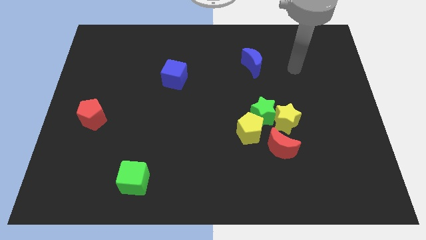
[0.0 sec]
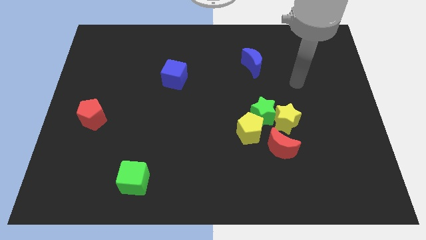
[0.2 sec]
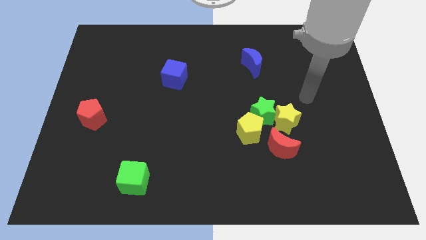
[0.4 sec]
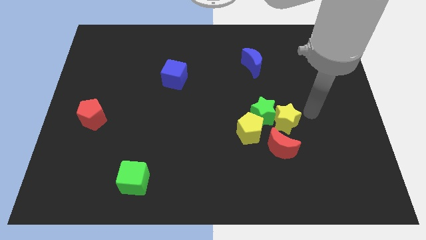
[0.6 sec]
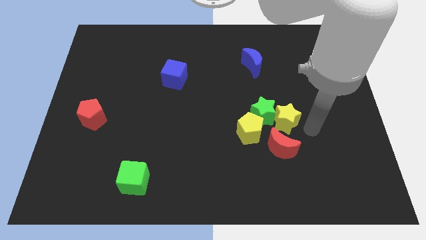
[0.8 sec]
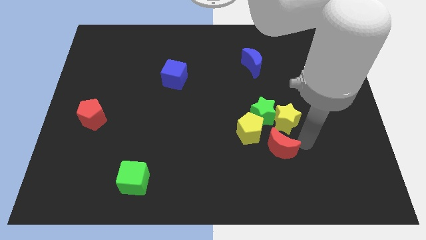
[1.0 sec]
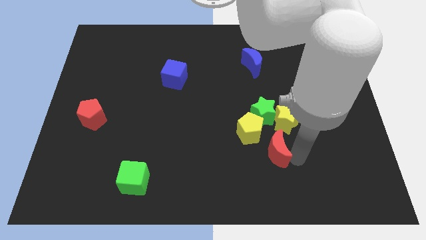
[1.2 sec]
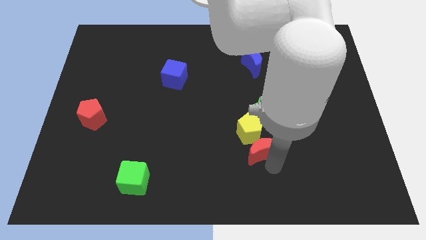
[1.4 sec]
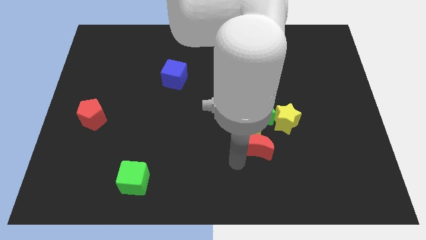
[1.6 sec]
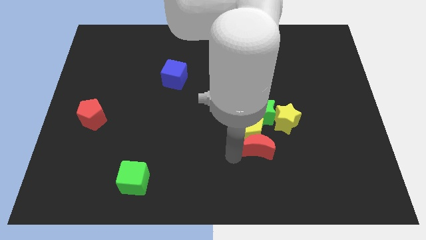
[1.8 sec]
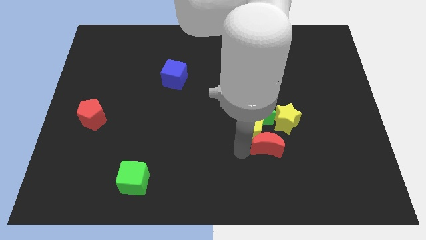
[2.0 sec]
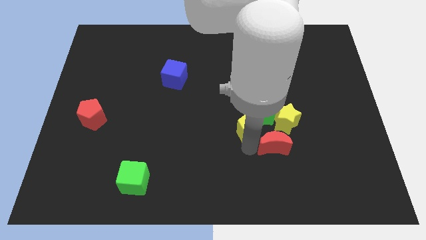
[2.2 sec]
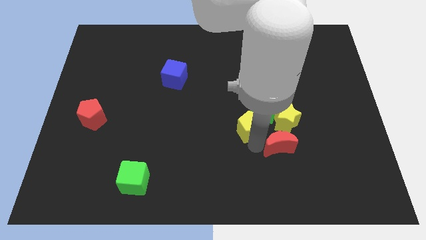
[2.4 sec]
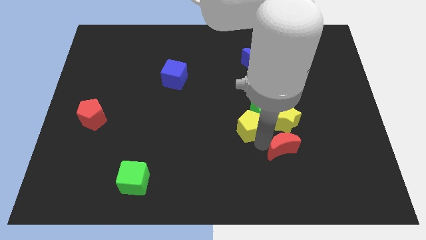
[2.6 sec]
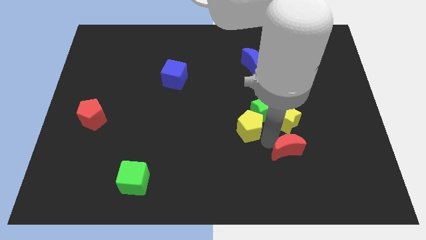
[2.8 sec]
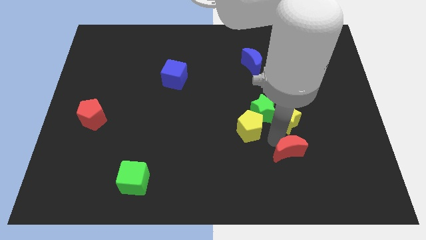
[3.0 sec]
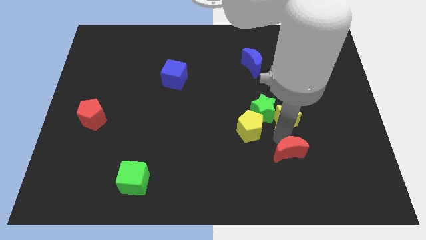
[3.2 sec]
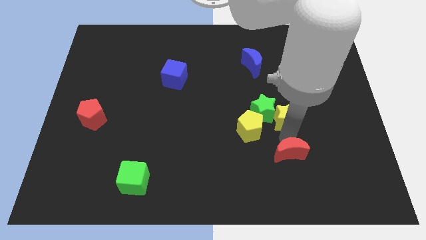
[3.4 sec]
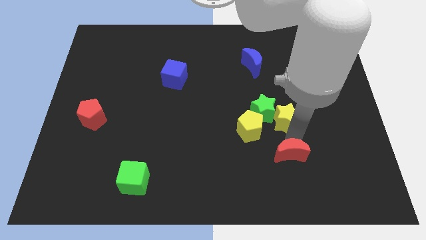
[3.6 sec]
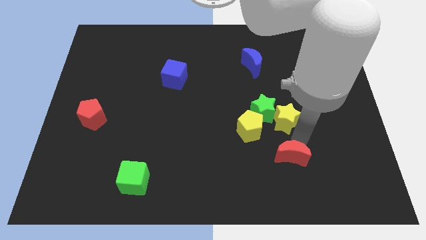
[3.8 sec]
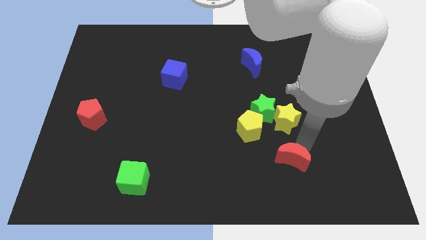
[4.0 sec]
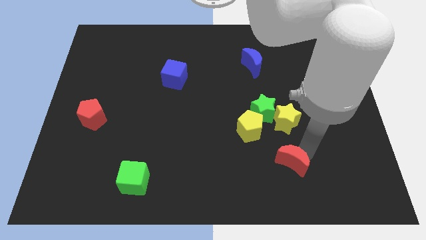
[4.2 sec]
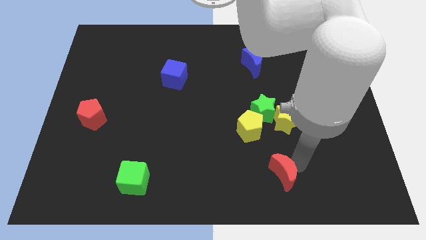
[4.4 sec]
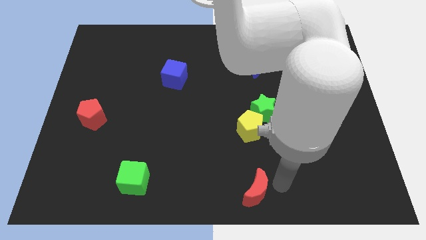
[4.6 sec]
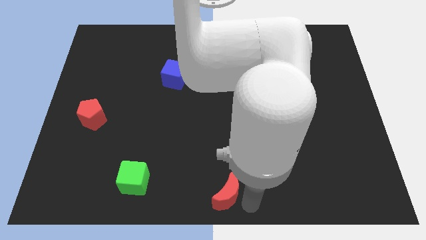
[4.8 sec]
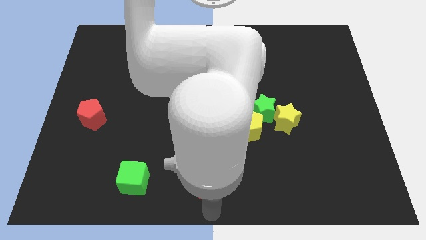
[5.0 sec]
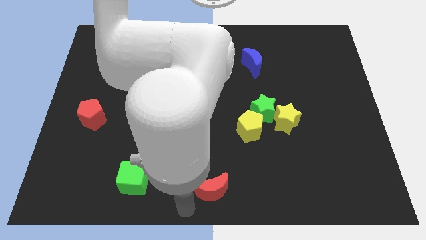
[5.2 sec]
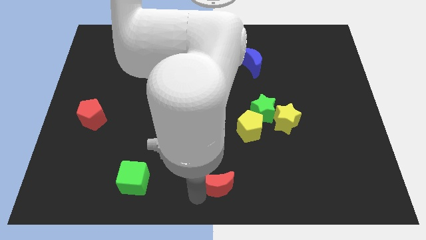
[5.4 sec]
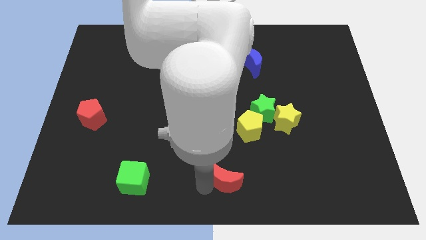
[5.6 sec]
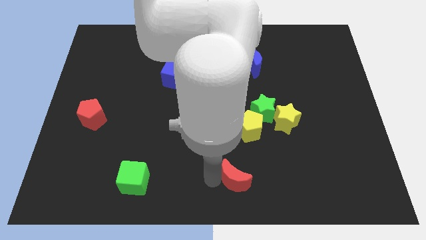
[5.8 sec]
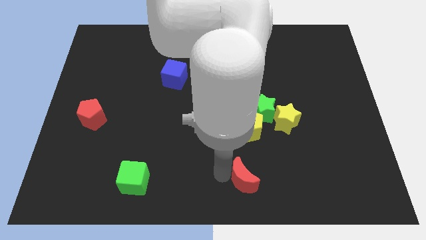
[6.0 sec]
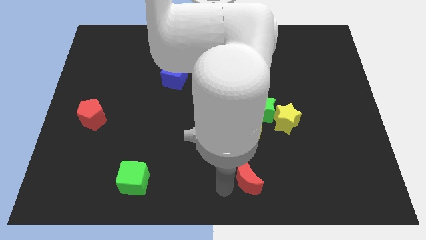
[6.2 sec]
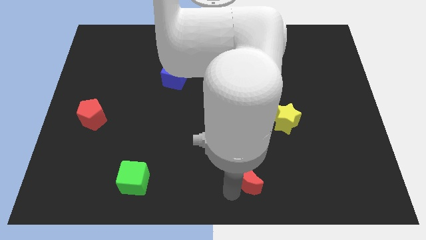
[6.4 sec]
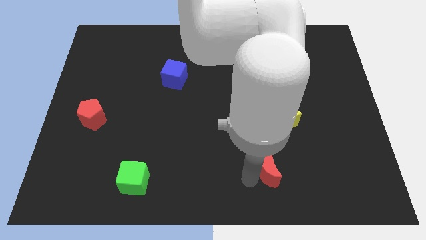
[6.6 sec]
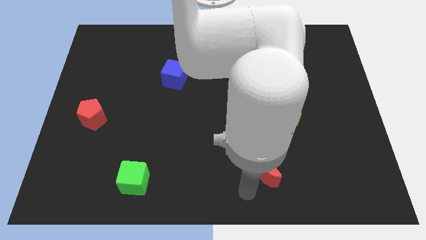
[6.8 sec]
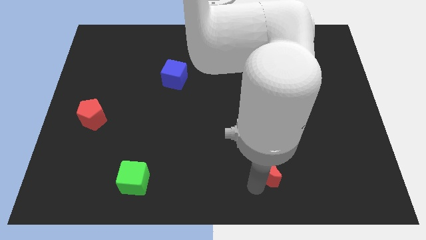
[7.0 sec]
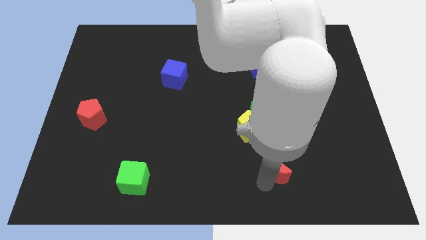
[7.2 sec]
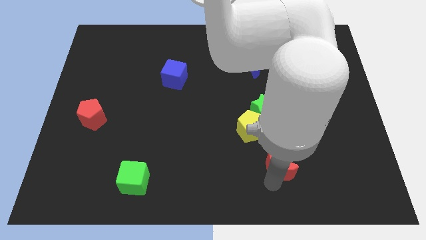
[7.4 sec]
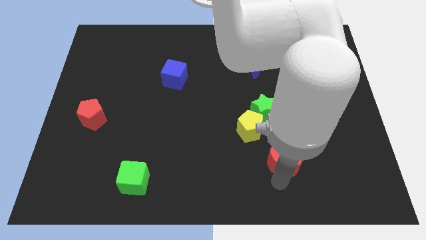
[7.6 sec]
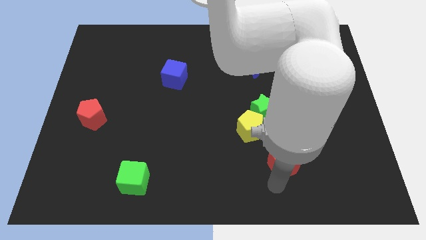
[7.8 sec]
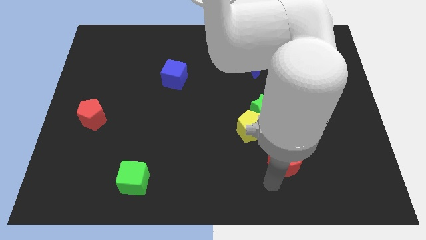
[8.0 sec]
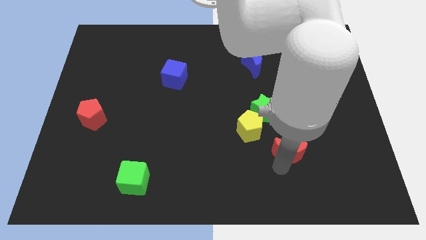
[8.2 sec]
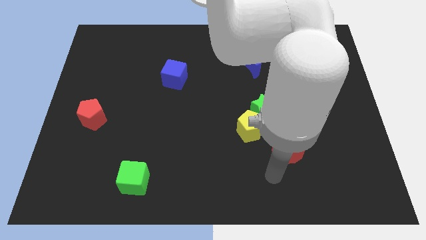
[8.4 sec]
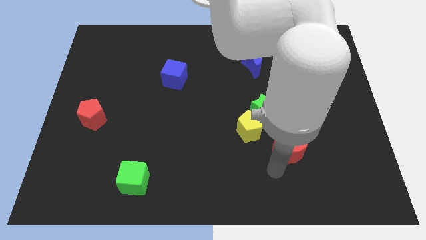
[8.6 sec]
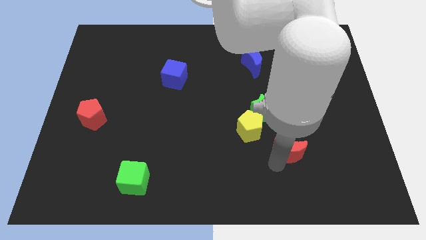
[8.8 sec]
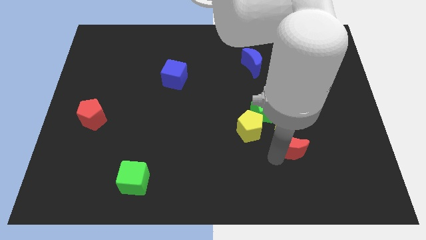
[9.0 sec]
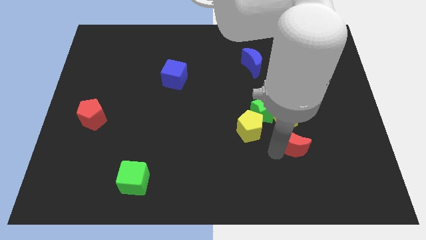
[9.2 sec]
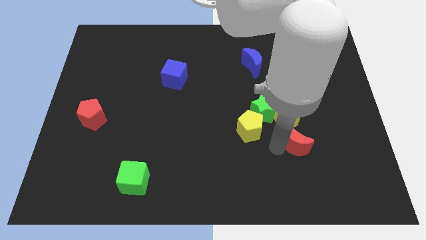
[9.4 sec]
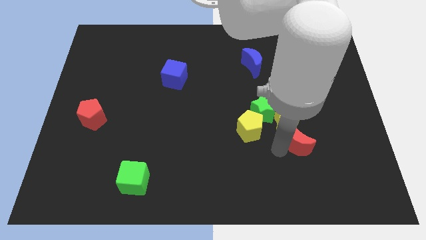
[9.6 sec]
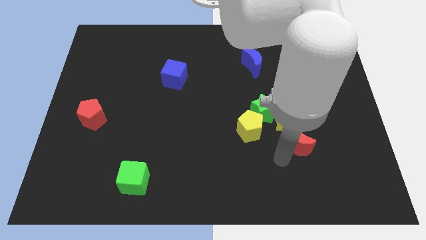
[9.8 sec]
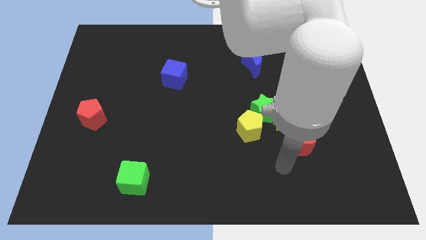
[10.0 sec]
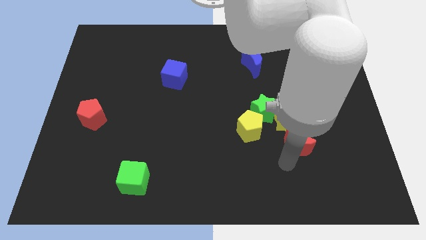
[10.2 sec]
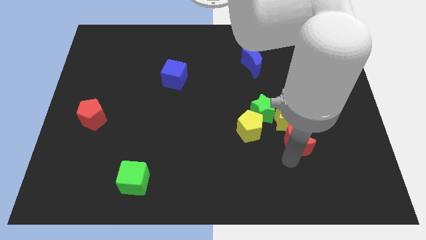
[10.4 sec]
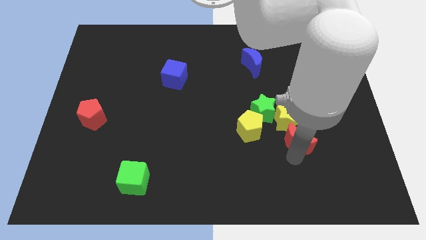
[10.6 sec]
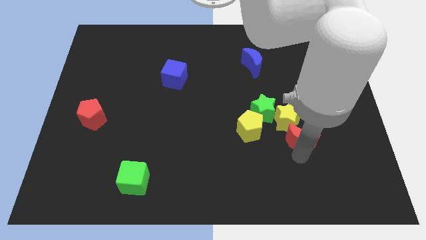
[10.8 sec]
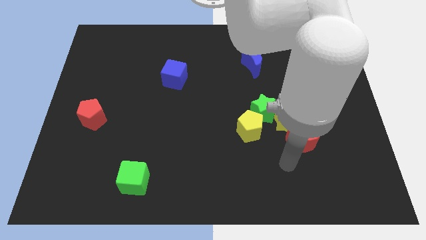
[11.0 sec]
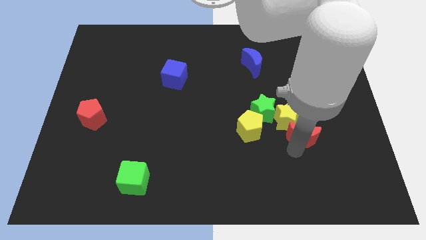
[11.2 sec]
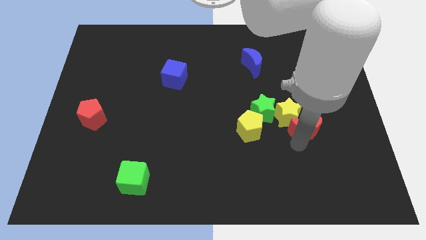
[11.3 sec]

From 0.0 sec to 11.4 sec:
slide the red moon up and then to the right a little

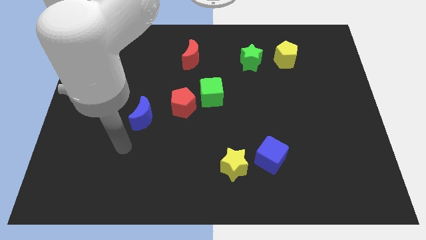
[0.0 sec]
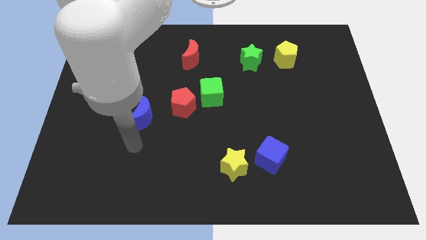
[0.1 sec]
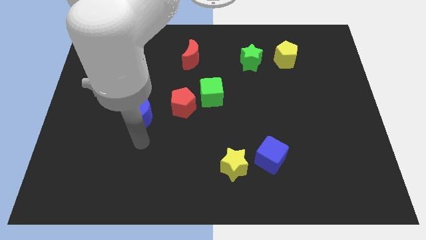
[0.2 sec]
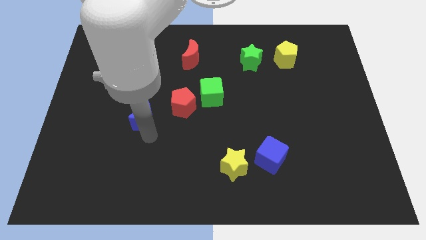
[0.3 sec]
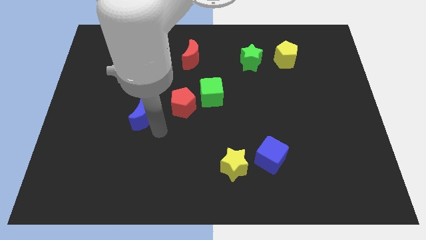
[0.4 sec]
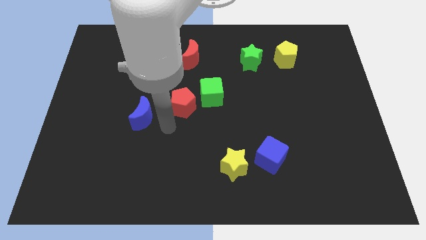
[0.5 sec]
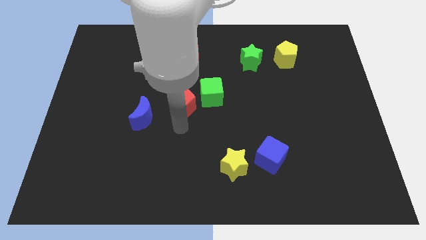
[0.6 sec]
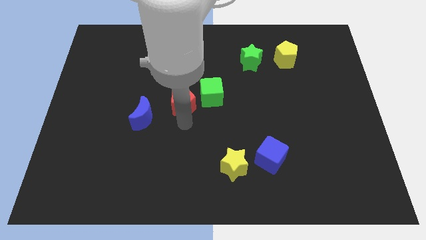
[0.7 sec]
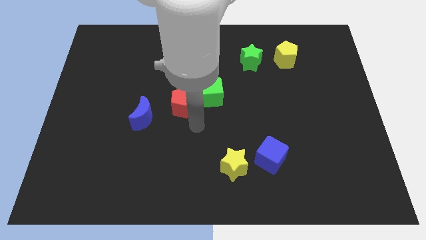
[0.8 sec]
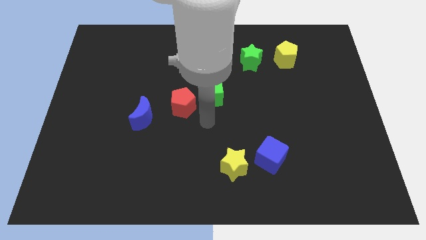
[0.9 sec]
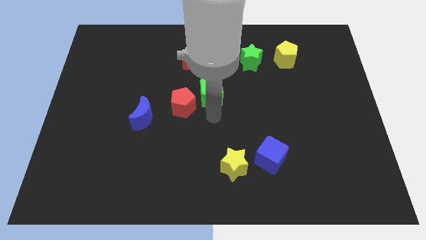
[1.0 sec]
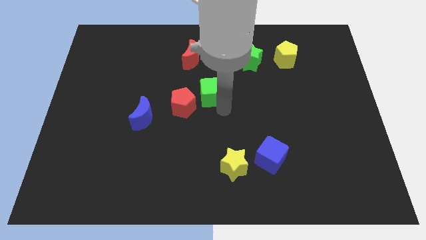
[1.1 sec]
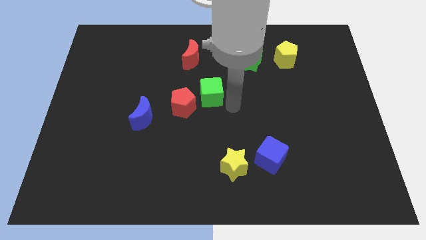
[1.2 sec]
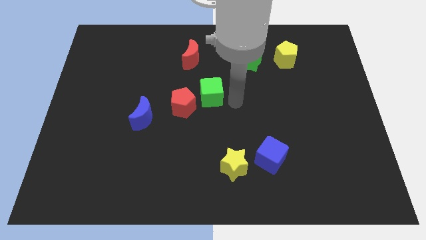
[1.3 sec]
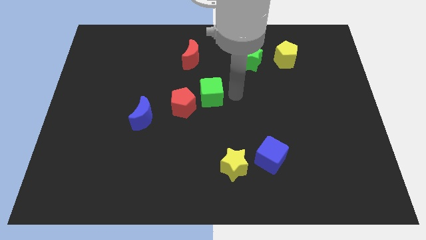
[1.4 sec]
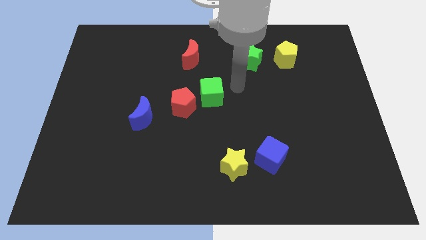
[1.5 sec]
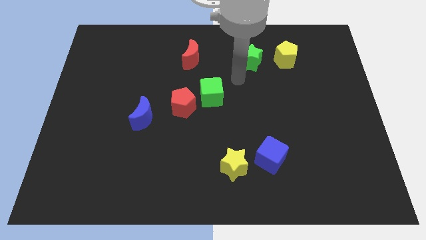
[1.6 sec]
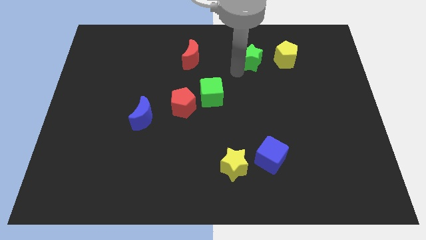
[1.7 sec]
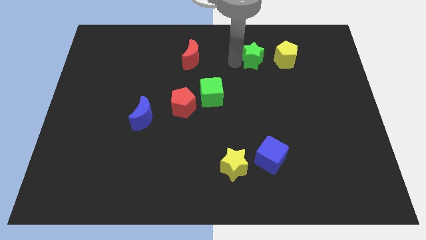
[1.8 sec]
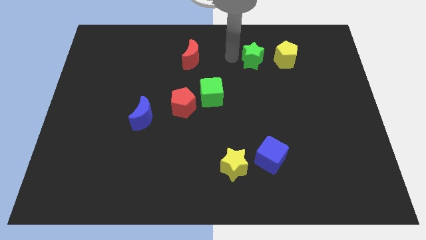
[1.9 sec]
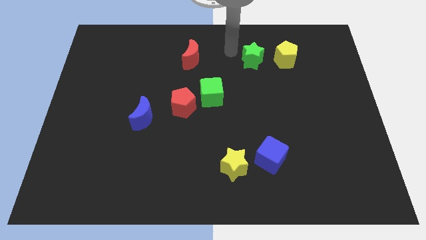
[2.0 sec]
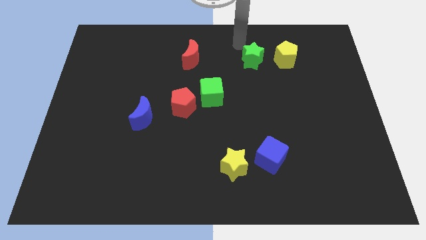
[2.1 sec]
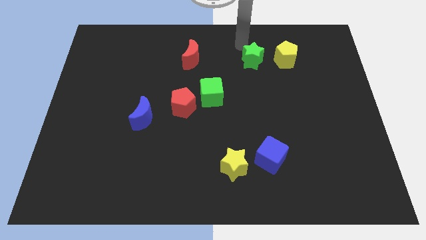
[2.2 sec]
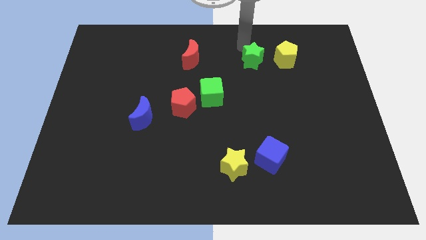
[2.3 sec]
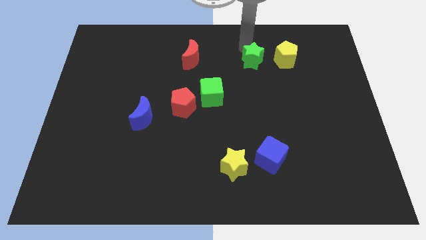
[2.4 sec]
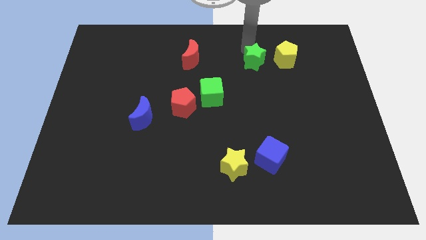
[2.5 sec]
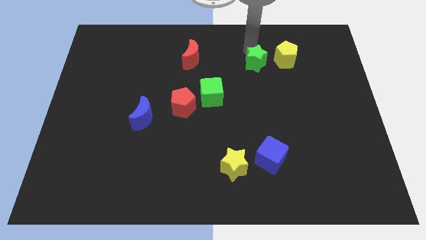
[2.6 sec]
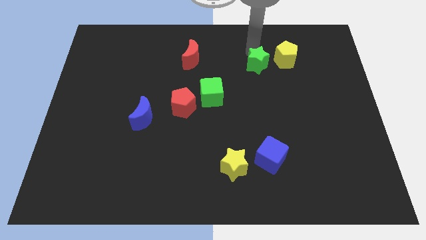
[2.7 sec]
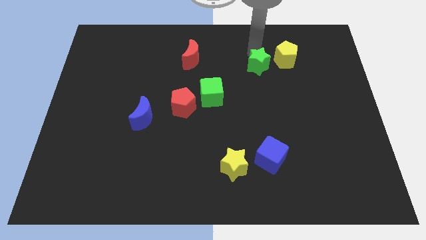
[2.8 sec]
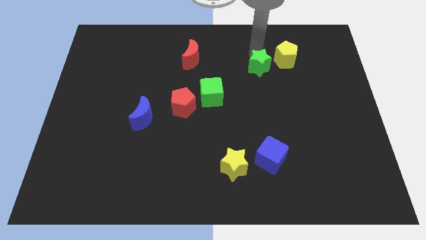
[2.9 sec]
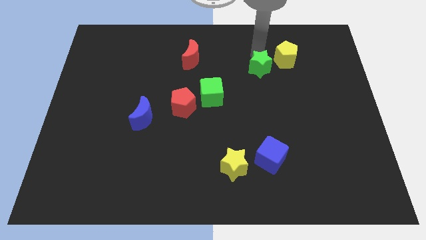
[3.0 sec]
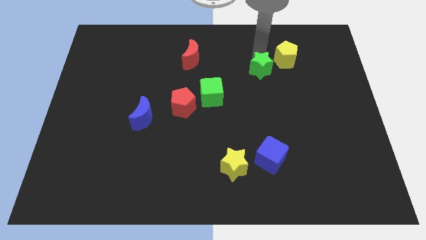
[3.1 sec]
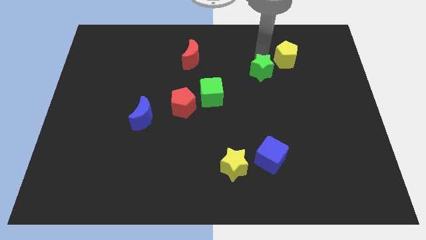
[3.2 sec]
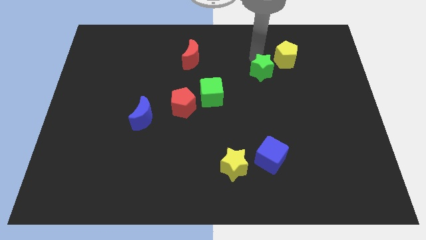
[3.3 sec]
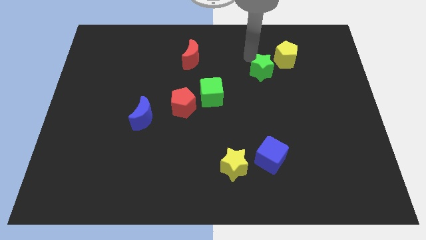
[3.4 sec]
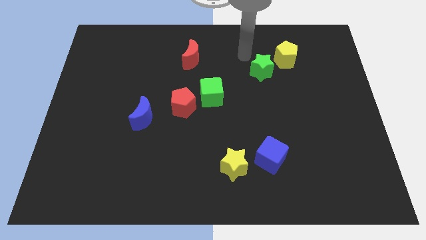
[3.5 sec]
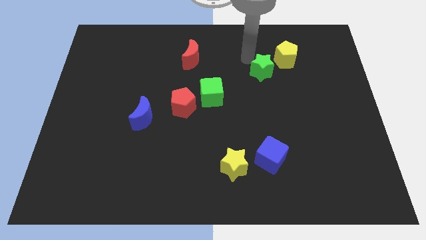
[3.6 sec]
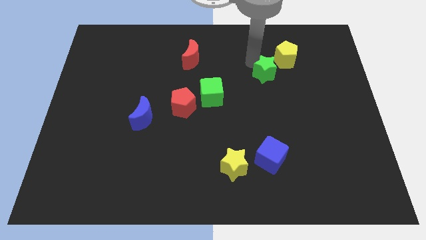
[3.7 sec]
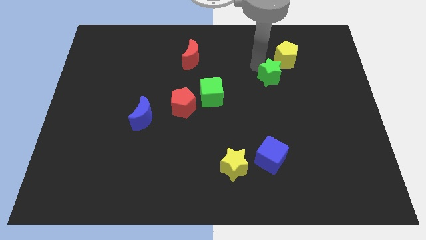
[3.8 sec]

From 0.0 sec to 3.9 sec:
slightly move the green star downwards and to the right diagonally
